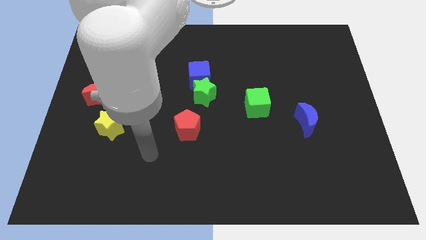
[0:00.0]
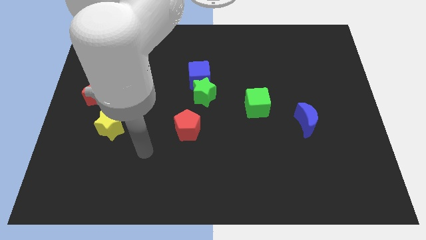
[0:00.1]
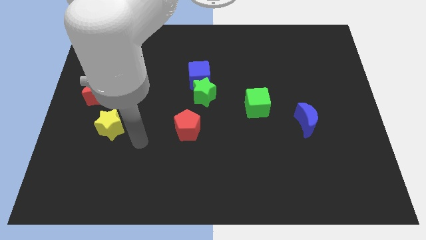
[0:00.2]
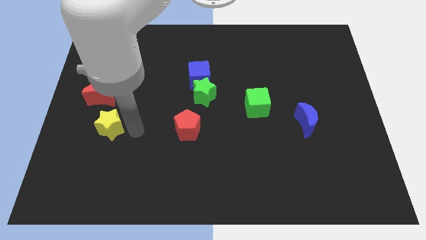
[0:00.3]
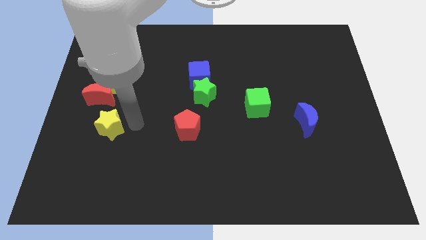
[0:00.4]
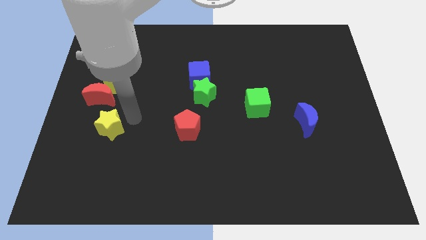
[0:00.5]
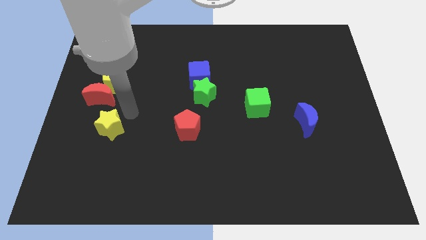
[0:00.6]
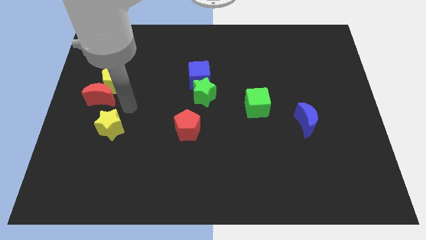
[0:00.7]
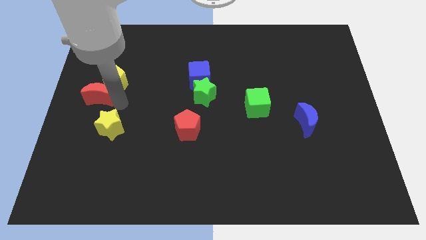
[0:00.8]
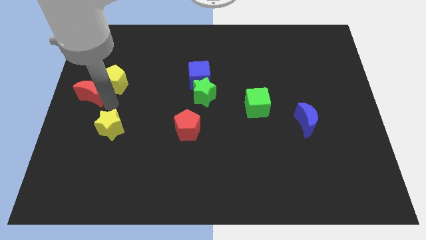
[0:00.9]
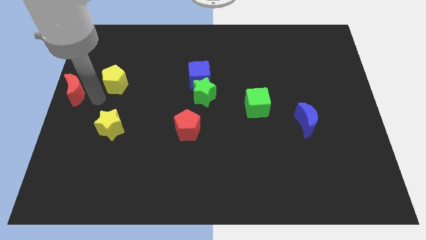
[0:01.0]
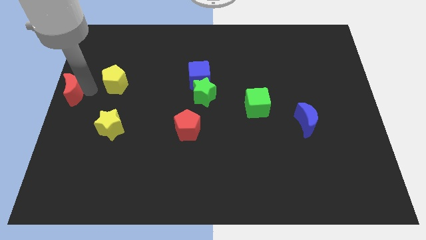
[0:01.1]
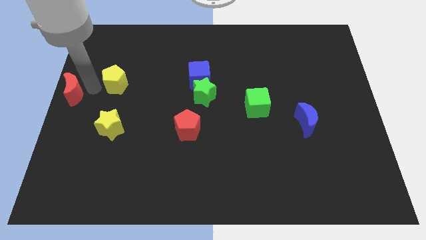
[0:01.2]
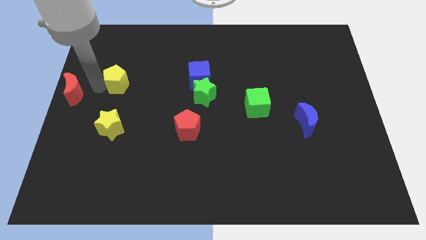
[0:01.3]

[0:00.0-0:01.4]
move the yellow pentagon away from the red moon

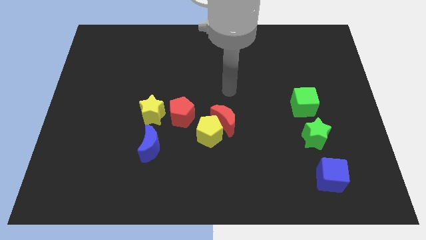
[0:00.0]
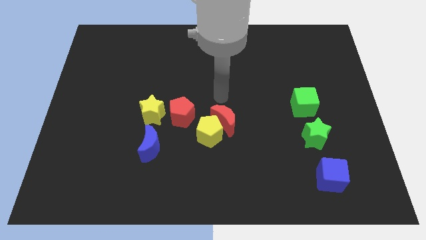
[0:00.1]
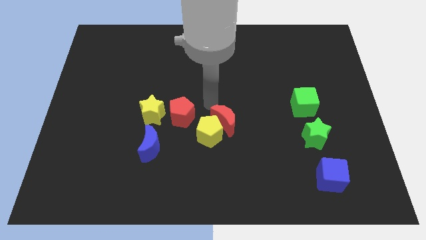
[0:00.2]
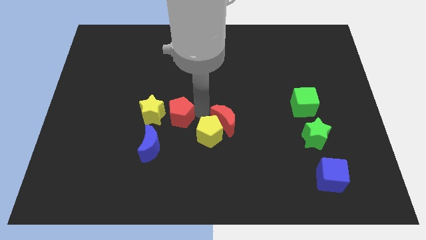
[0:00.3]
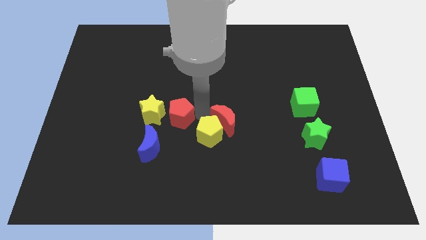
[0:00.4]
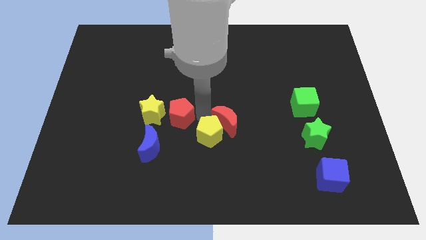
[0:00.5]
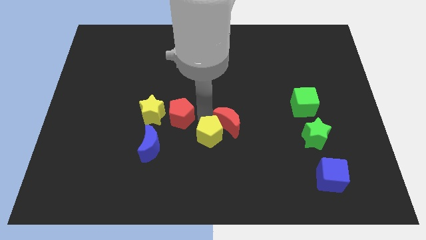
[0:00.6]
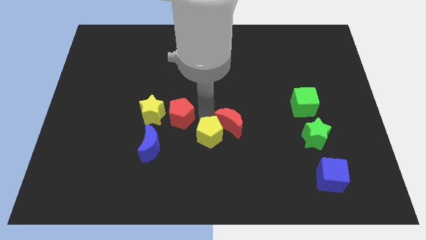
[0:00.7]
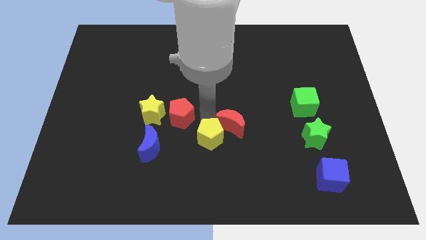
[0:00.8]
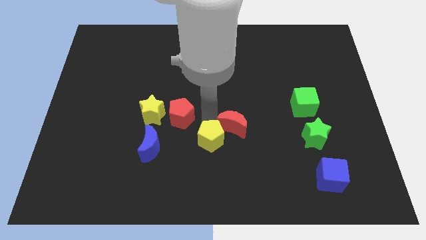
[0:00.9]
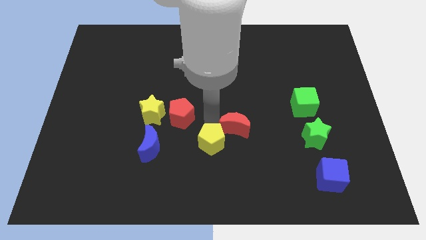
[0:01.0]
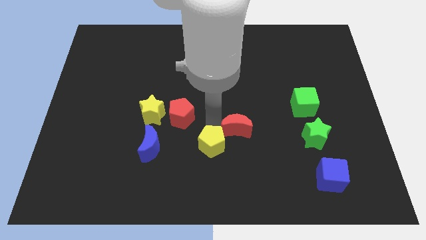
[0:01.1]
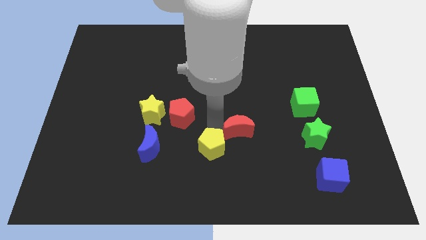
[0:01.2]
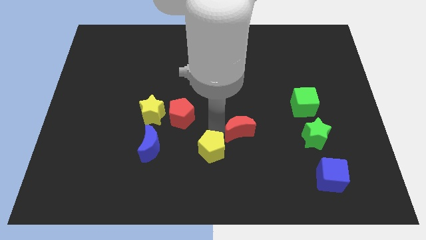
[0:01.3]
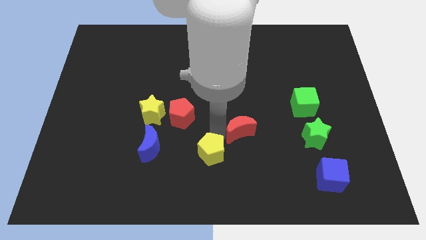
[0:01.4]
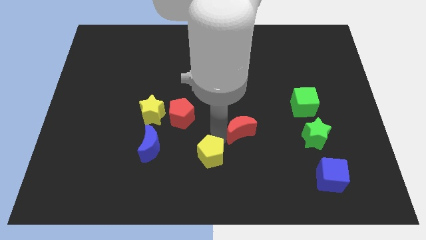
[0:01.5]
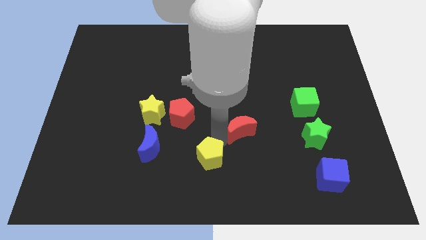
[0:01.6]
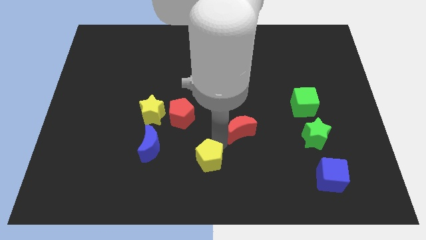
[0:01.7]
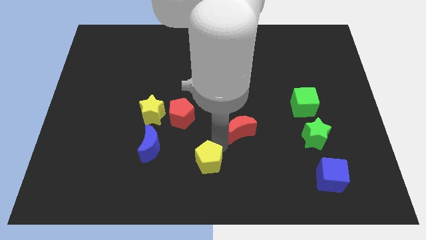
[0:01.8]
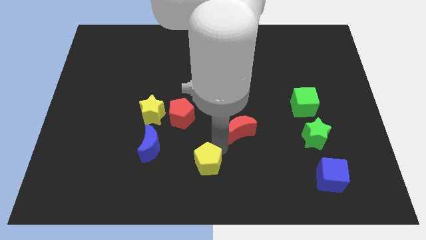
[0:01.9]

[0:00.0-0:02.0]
move the yellow pentagon away from the red moon and red pentagon

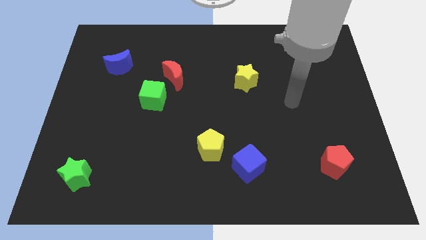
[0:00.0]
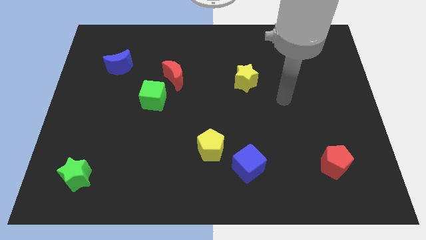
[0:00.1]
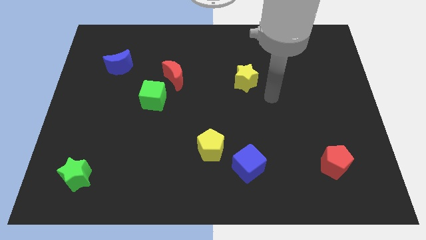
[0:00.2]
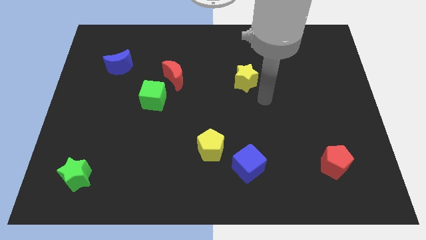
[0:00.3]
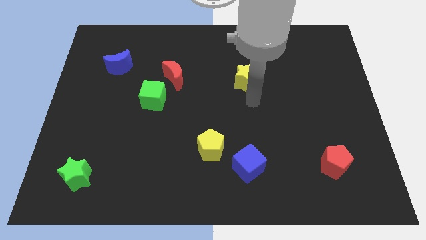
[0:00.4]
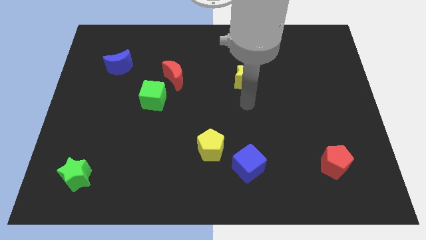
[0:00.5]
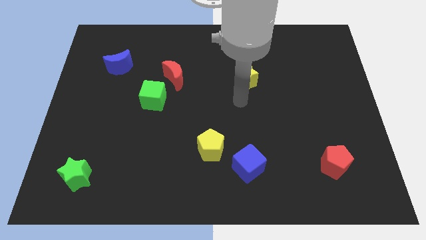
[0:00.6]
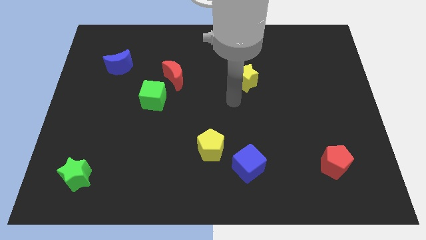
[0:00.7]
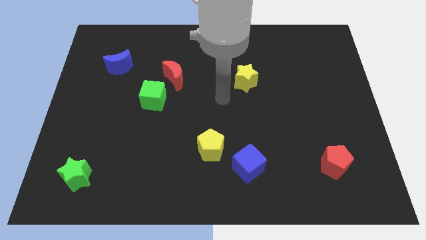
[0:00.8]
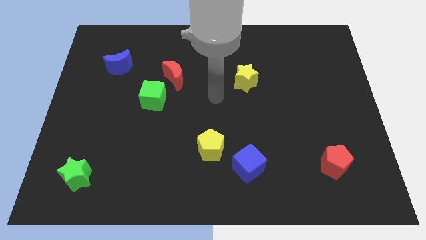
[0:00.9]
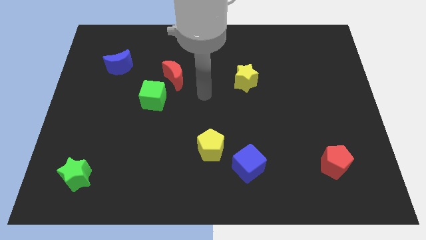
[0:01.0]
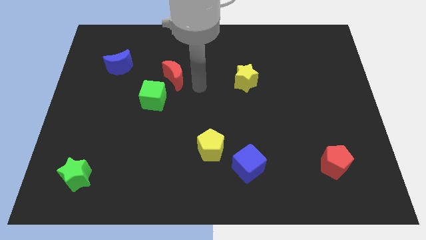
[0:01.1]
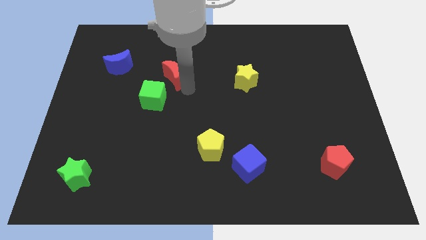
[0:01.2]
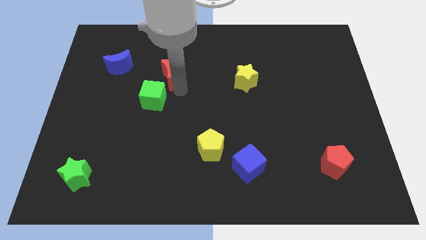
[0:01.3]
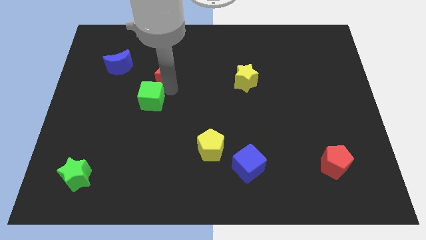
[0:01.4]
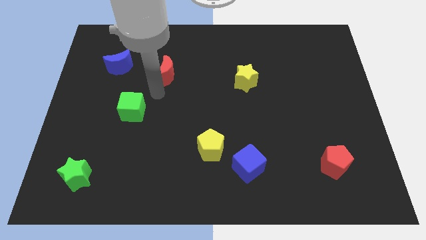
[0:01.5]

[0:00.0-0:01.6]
separate the red moon from the green cube

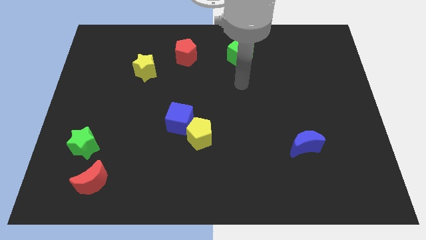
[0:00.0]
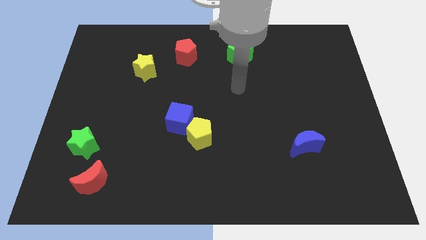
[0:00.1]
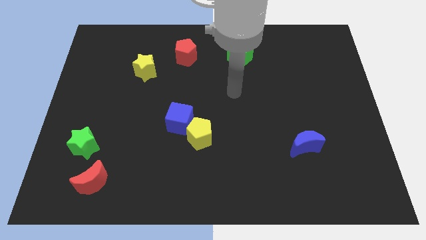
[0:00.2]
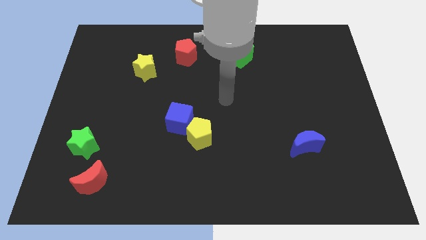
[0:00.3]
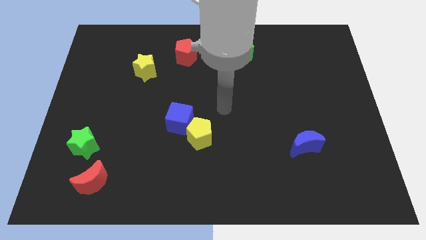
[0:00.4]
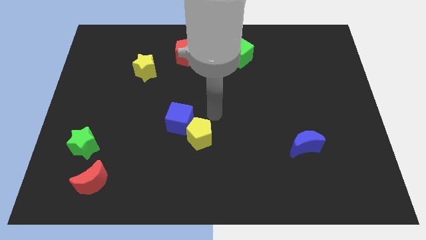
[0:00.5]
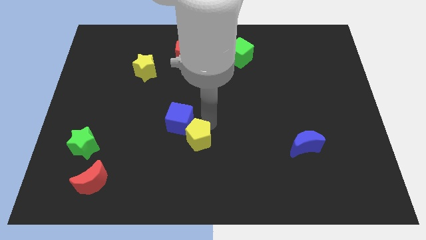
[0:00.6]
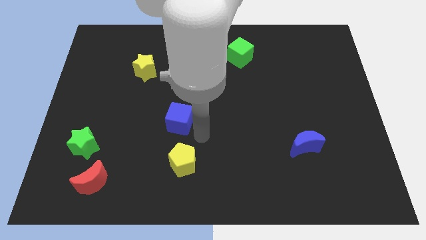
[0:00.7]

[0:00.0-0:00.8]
separate the blue cube from the yellow pentagon

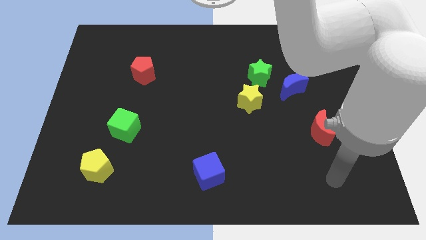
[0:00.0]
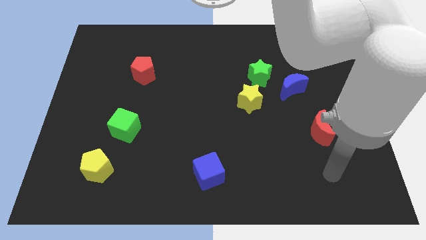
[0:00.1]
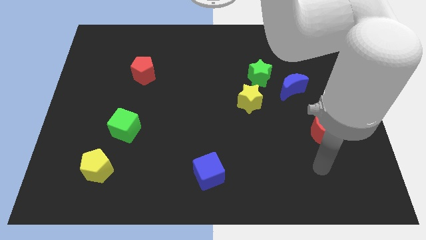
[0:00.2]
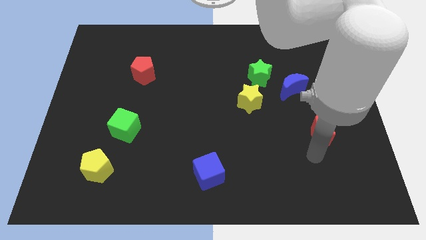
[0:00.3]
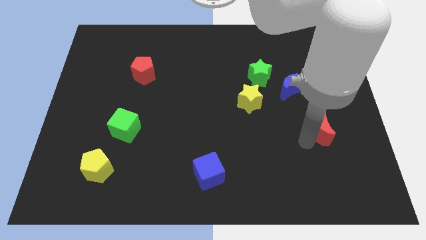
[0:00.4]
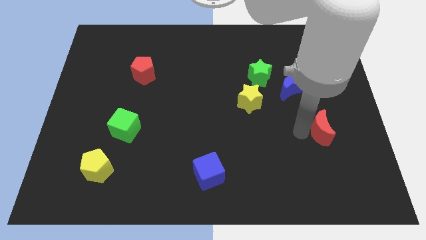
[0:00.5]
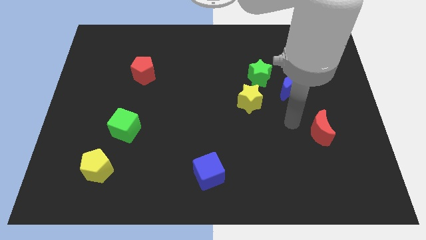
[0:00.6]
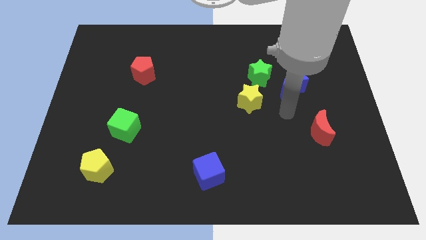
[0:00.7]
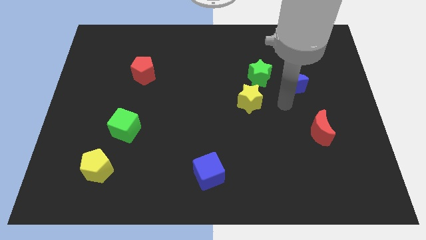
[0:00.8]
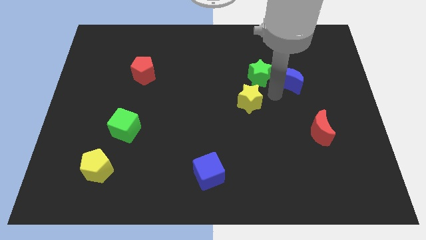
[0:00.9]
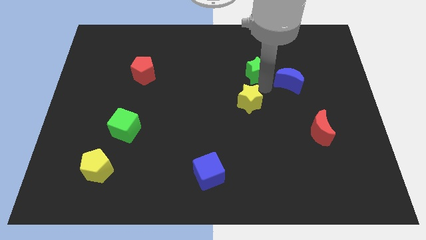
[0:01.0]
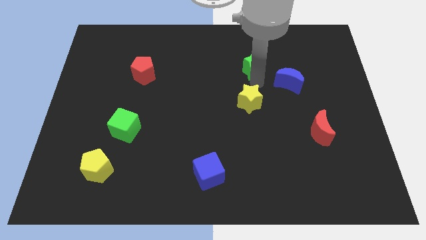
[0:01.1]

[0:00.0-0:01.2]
separate the yellow star from the green star

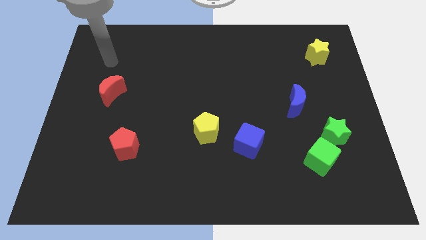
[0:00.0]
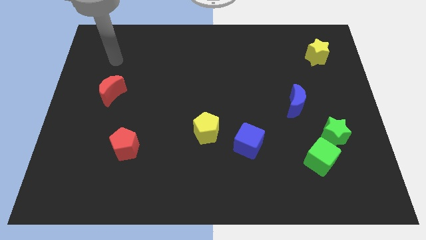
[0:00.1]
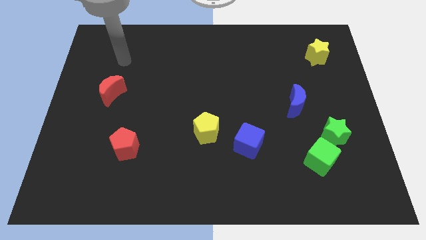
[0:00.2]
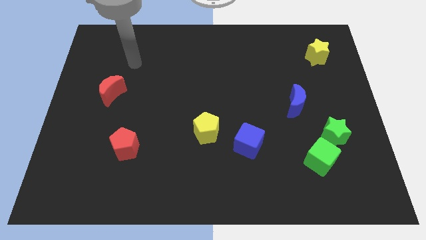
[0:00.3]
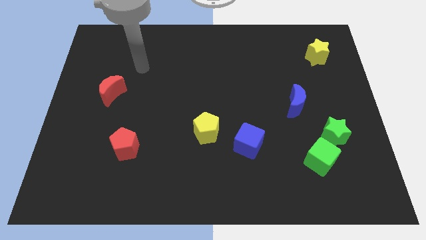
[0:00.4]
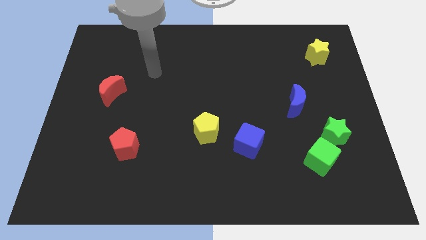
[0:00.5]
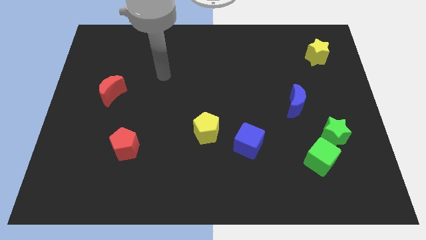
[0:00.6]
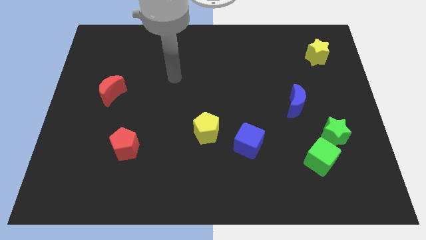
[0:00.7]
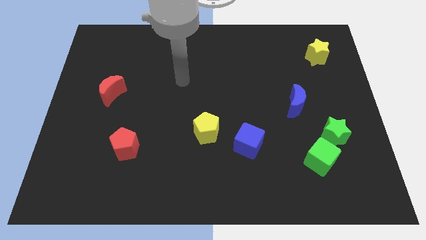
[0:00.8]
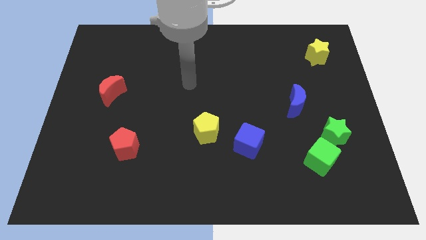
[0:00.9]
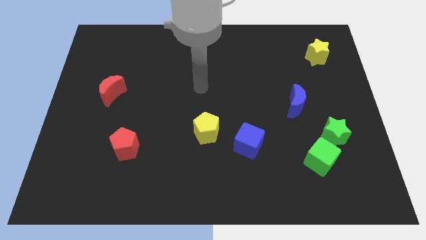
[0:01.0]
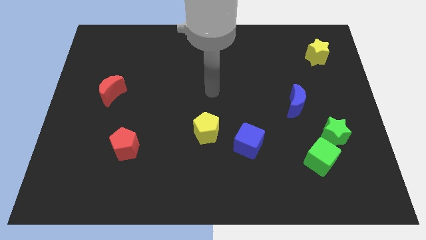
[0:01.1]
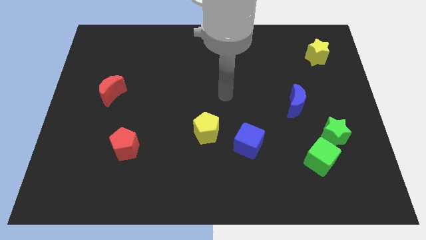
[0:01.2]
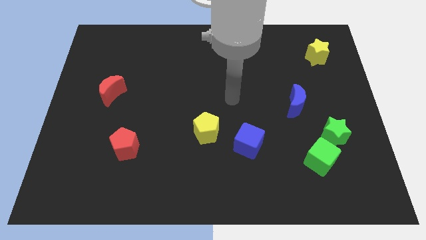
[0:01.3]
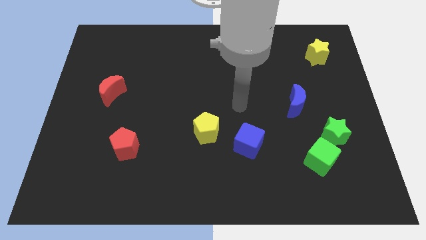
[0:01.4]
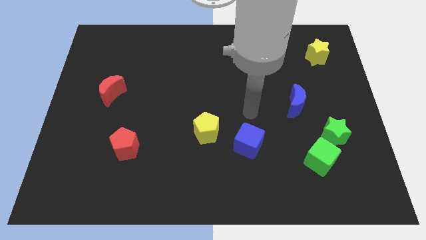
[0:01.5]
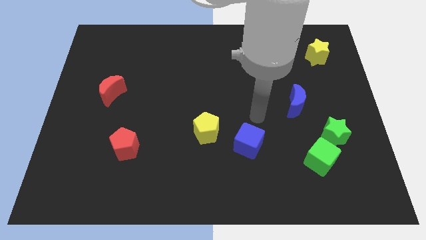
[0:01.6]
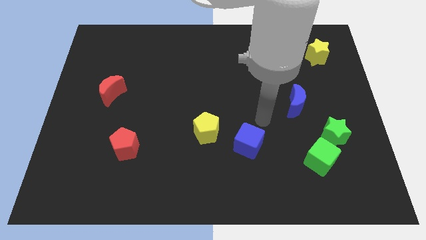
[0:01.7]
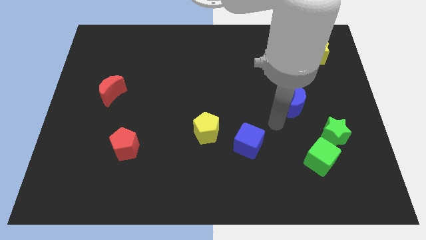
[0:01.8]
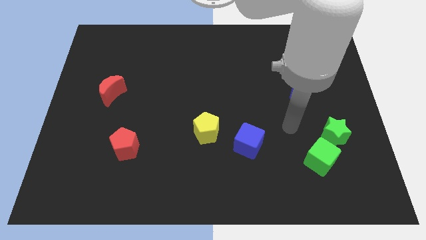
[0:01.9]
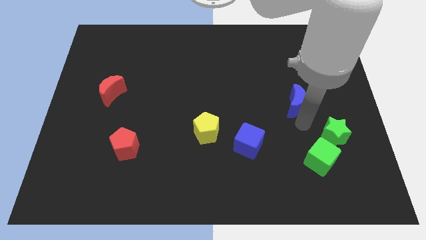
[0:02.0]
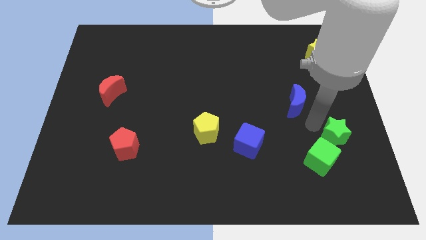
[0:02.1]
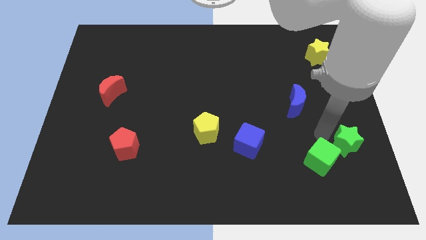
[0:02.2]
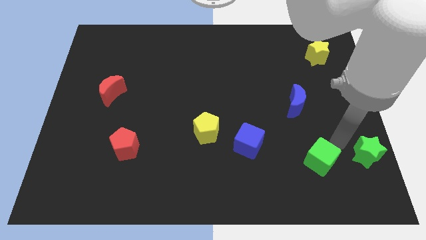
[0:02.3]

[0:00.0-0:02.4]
move the green cube away from the green star
